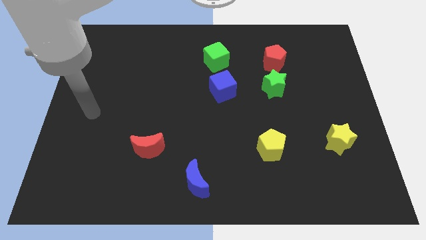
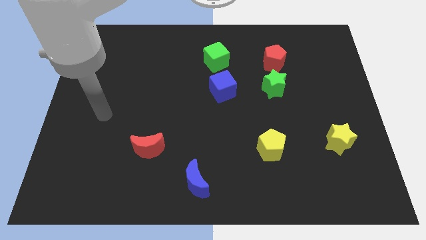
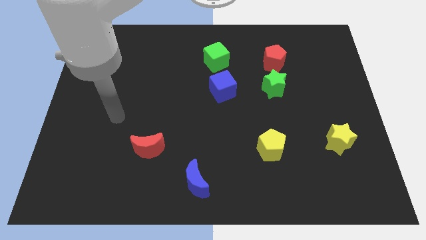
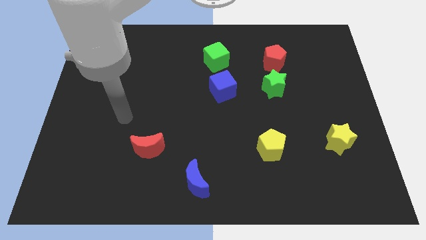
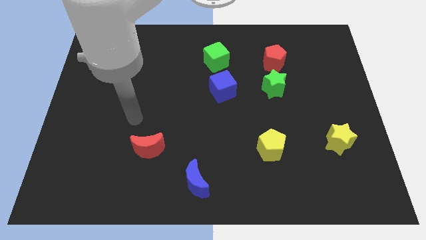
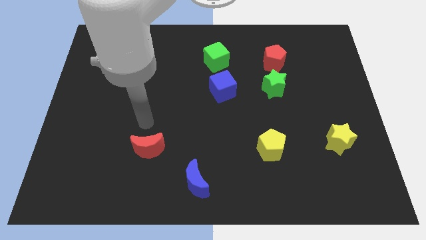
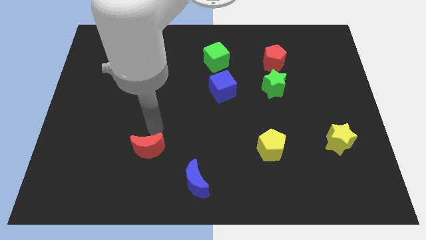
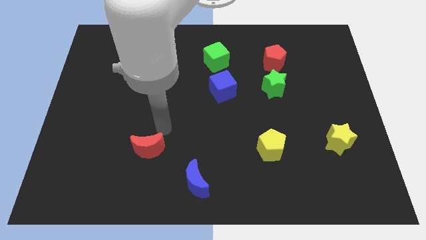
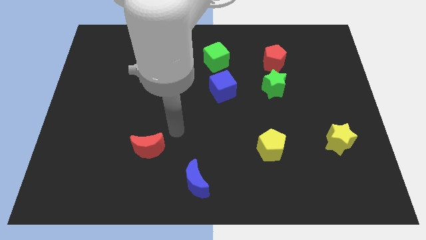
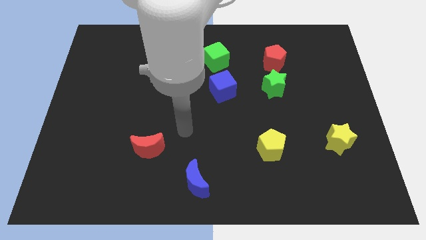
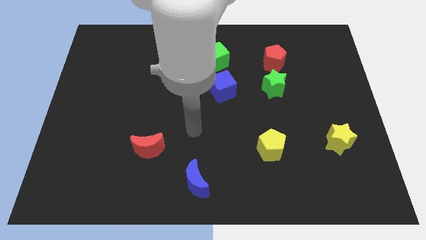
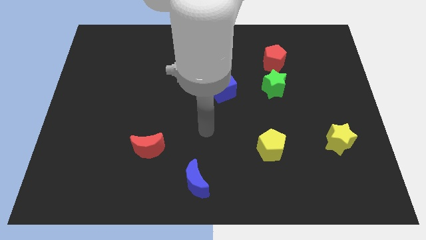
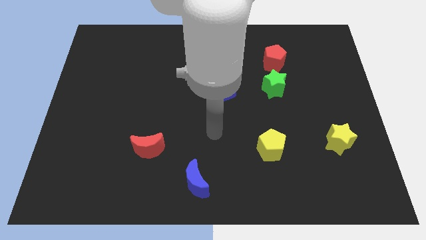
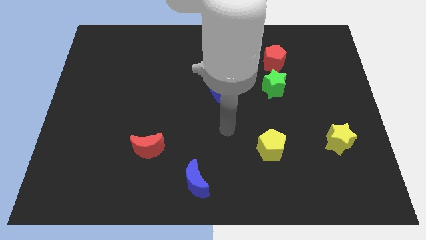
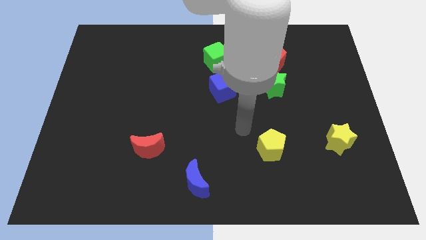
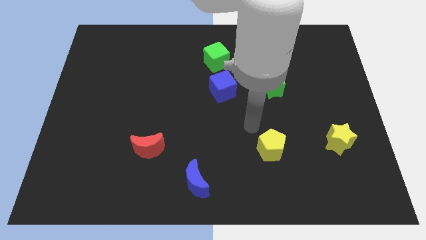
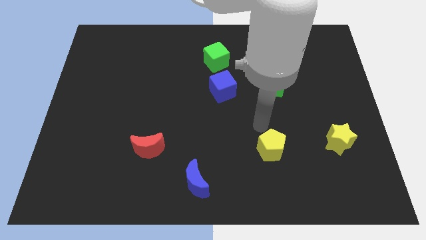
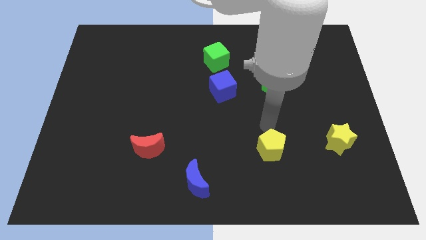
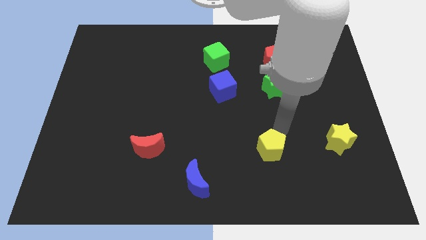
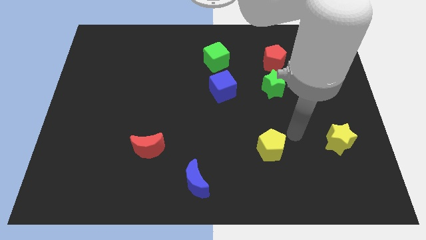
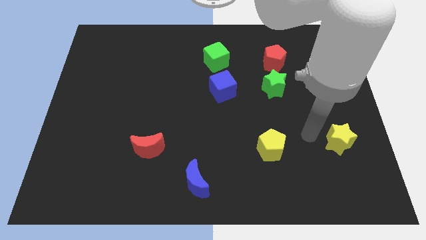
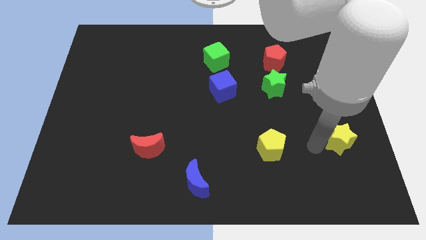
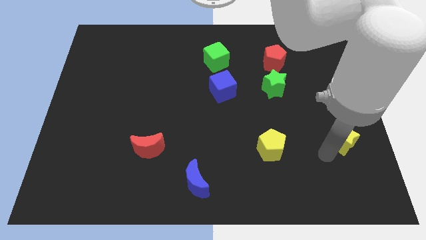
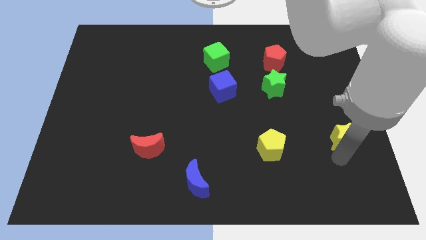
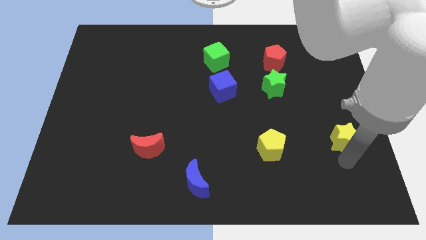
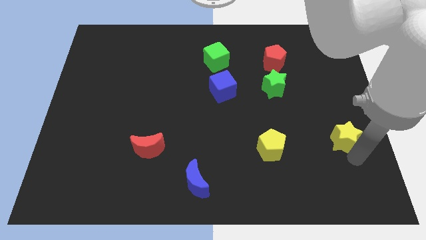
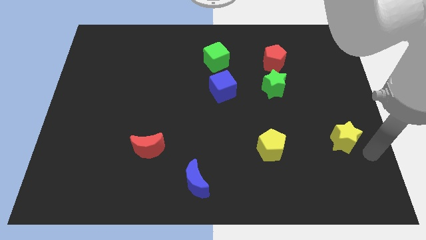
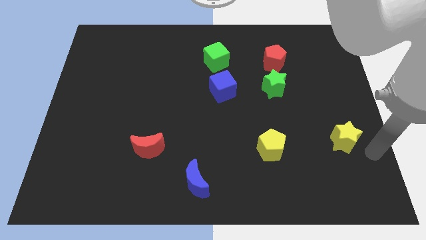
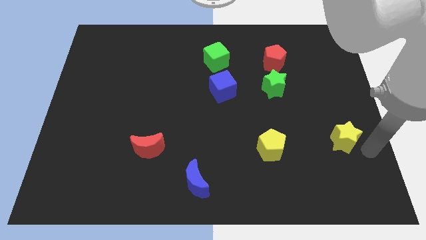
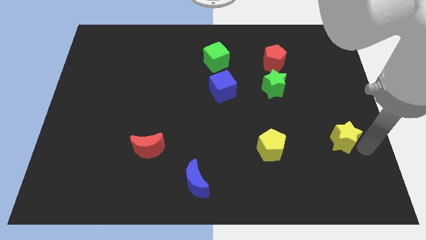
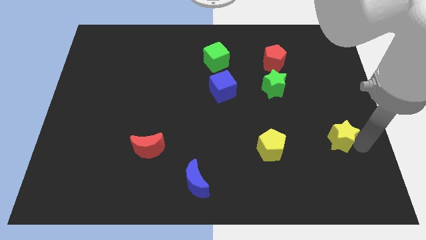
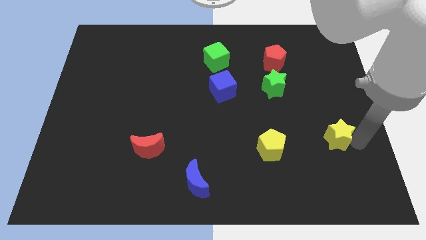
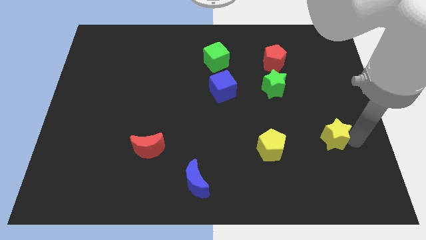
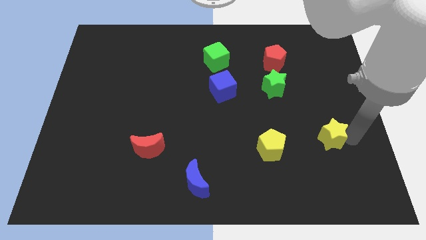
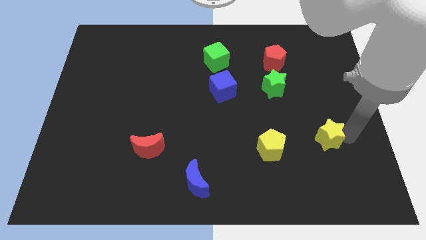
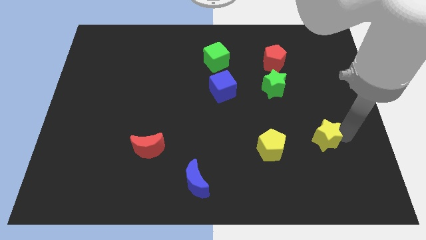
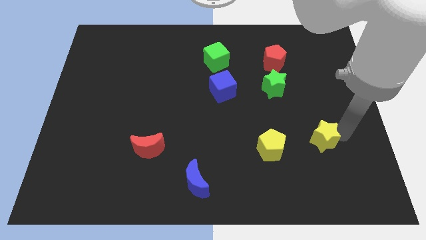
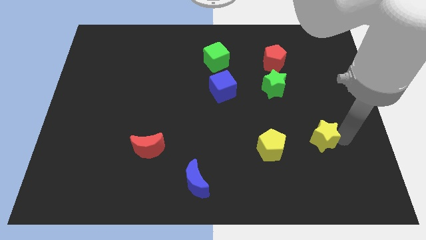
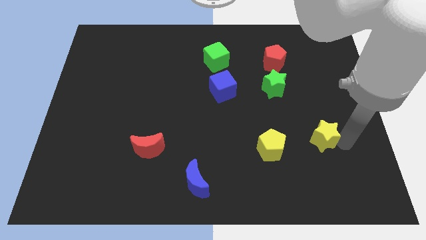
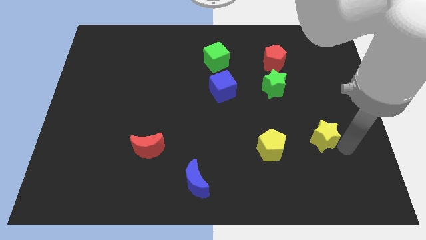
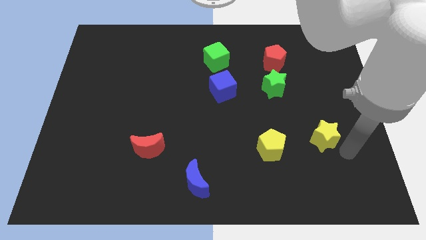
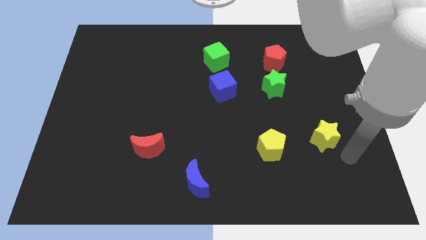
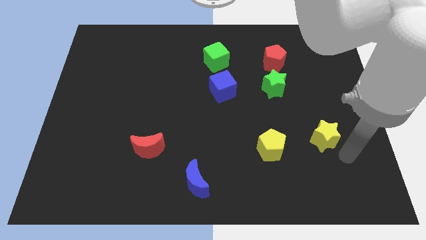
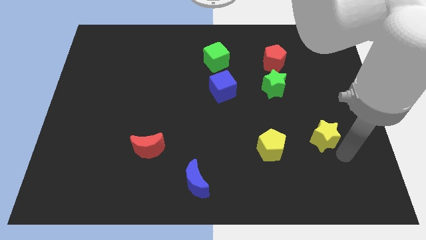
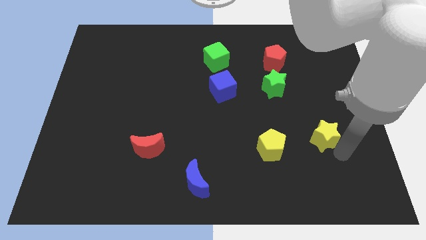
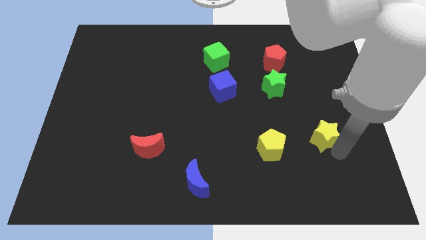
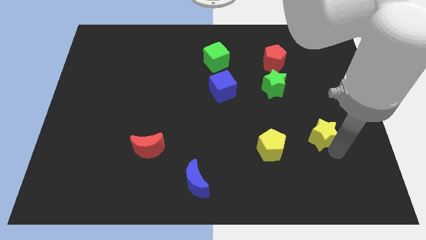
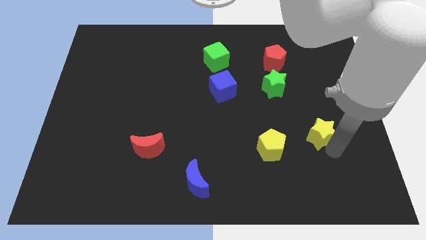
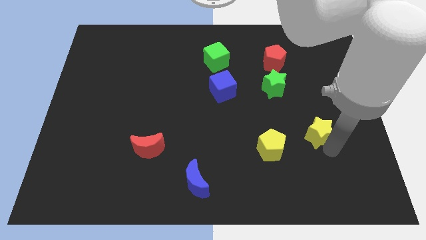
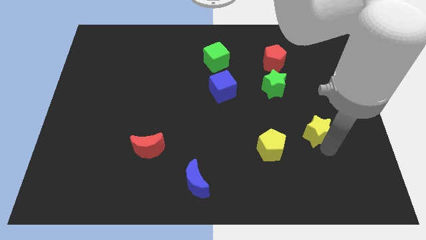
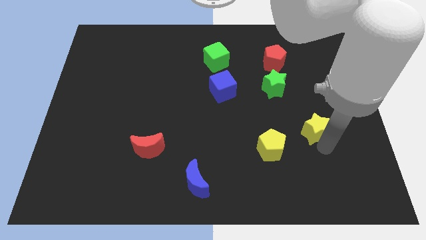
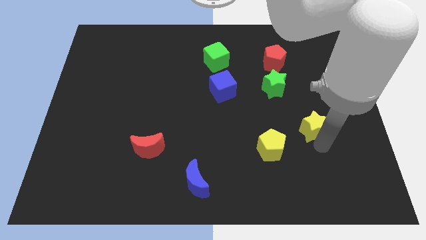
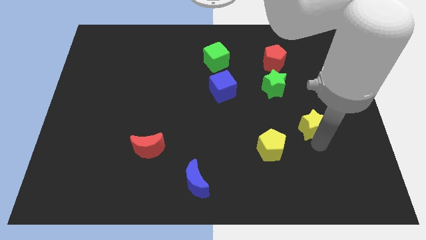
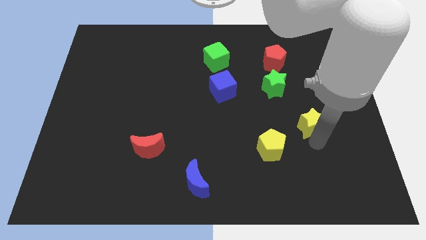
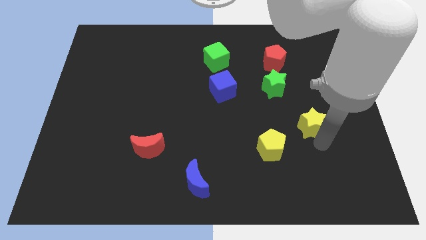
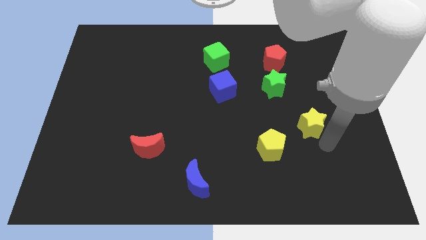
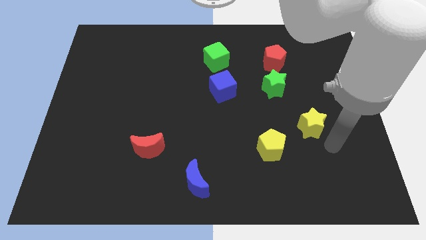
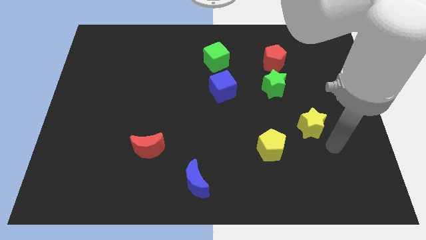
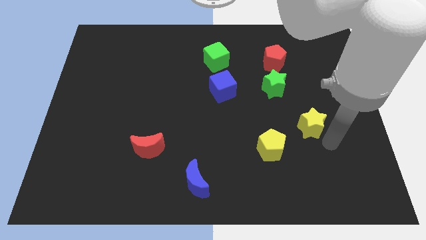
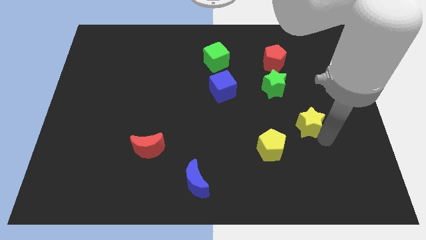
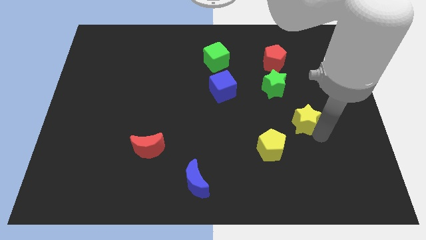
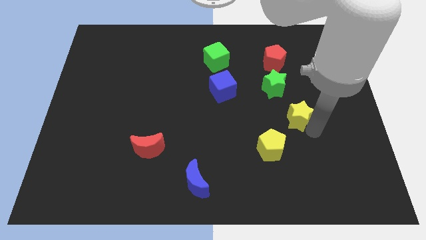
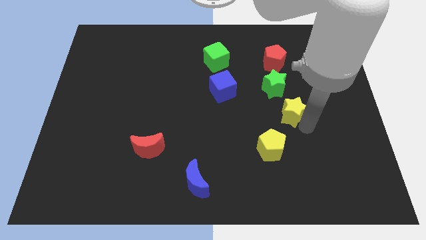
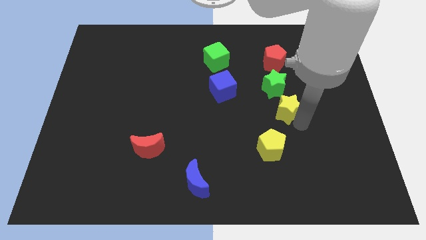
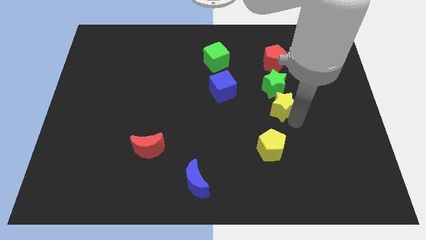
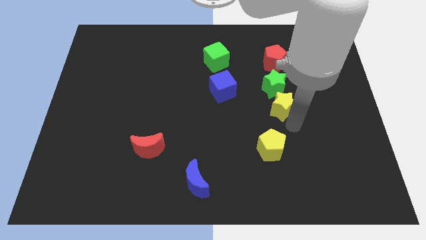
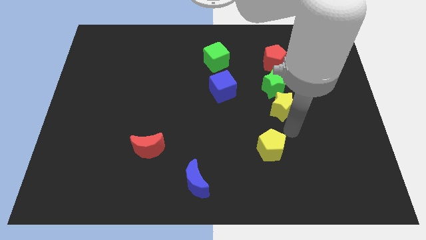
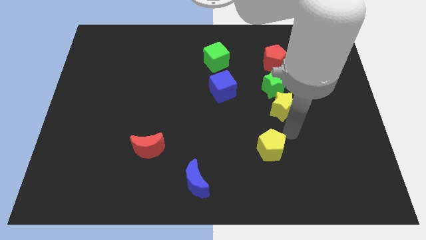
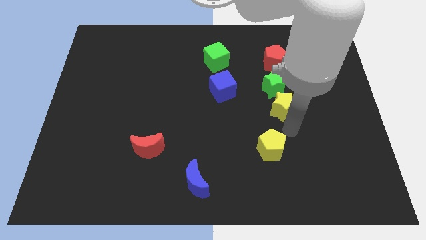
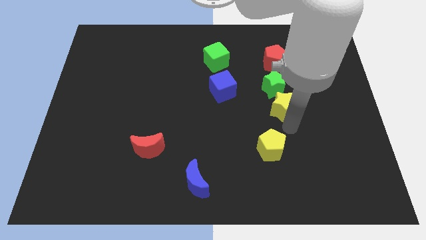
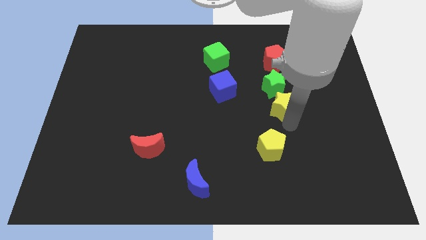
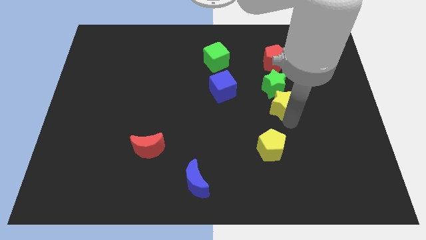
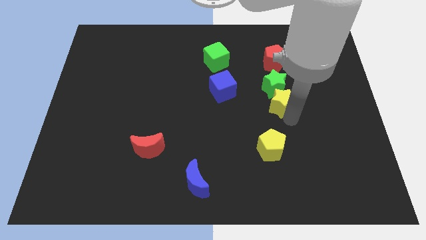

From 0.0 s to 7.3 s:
put the yellow star next to the green star

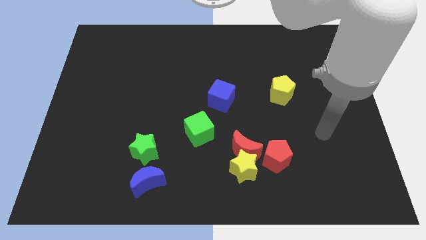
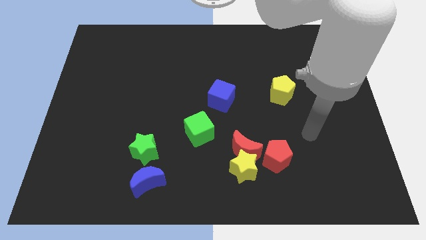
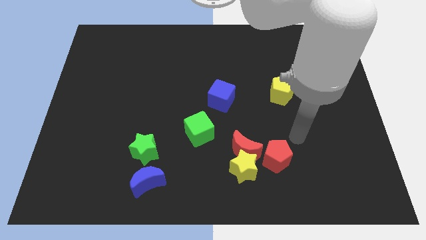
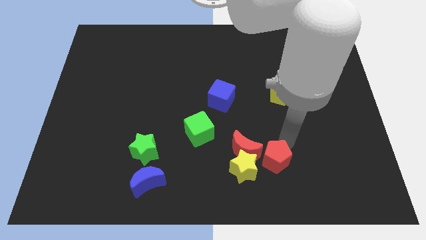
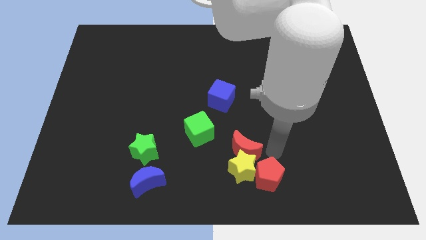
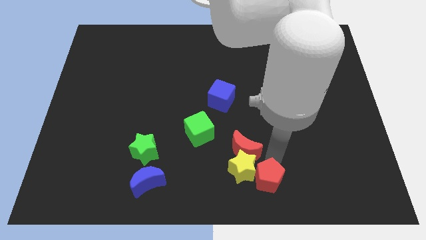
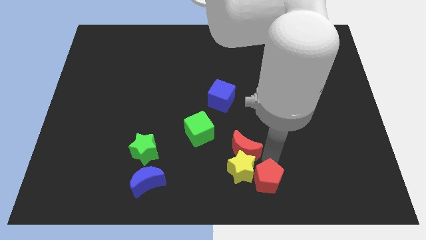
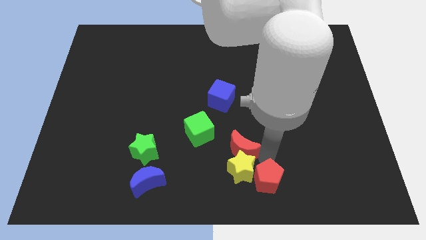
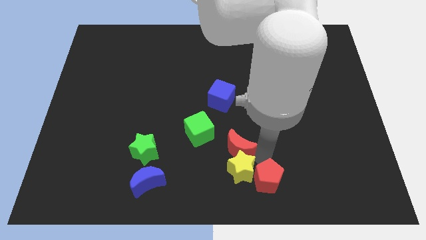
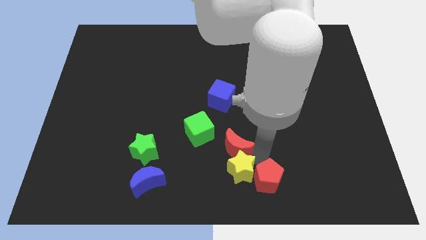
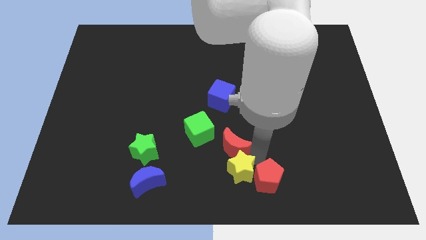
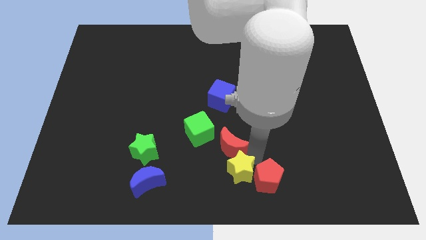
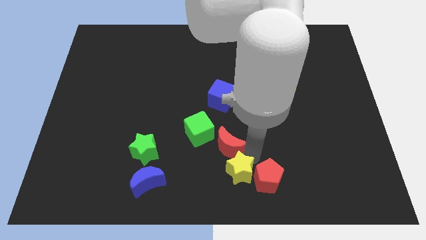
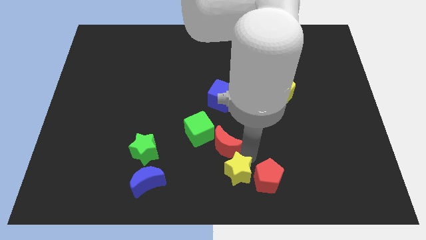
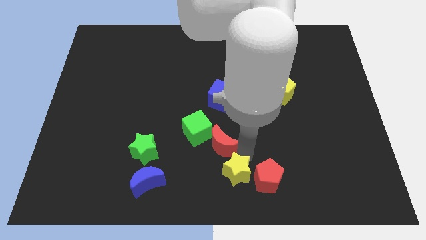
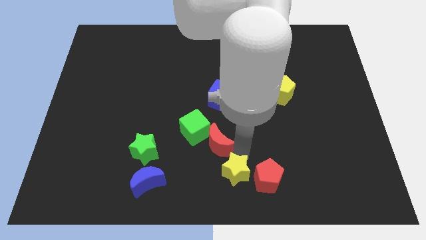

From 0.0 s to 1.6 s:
move the red moon to the green cube
